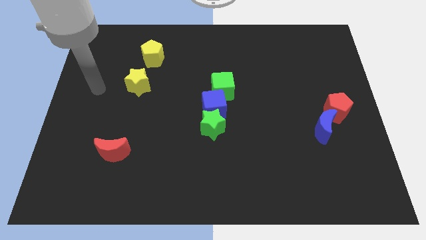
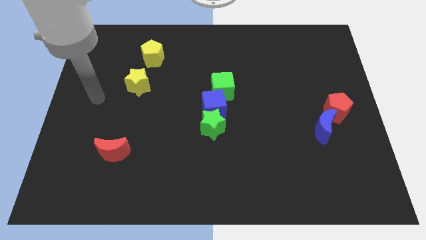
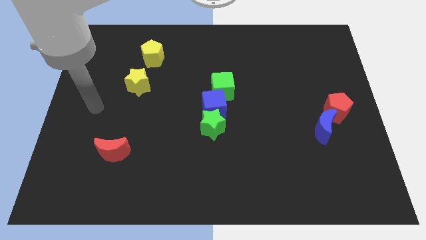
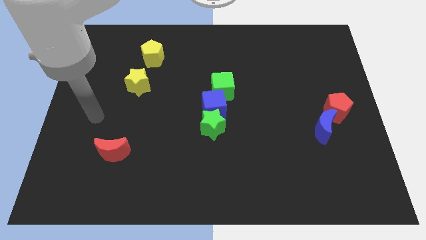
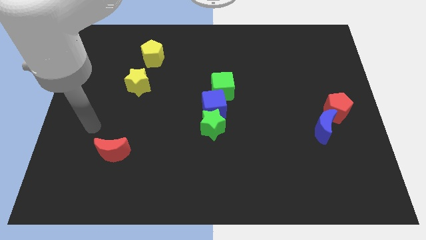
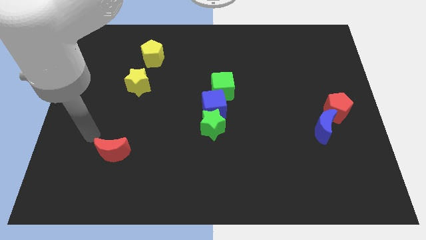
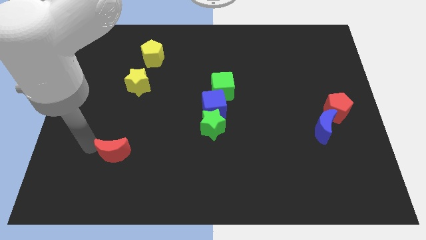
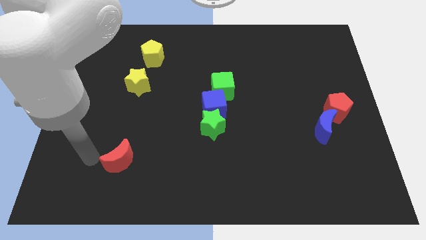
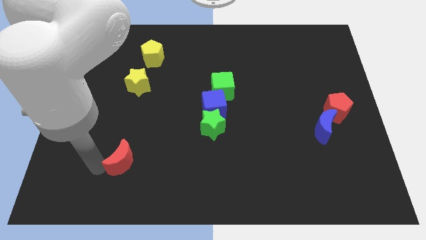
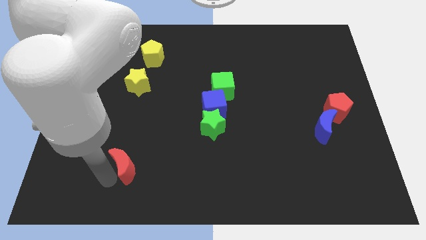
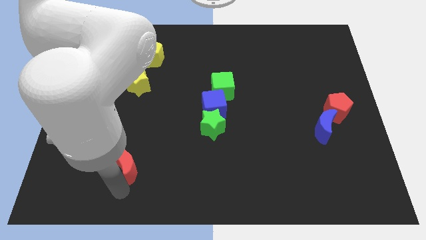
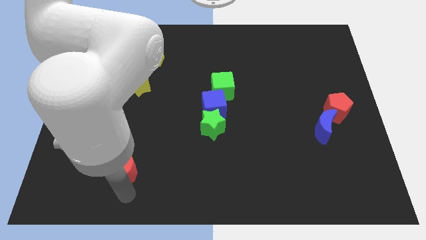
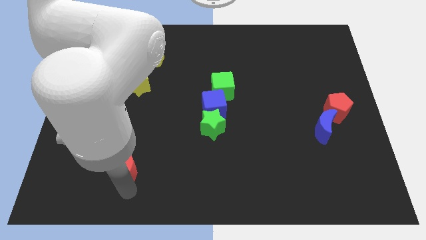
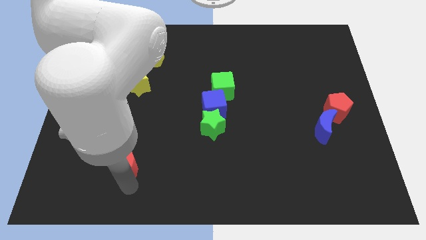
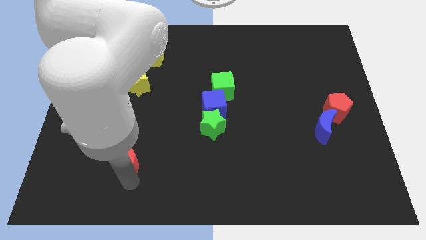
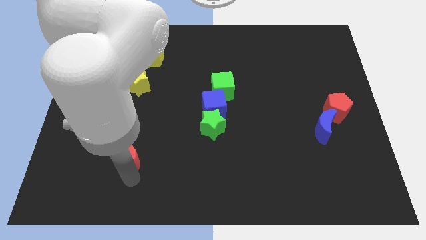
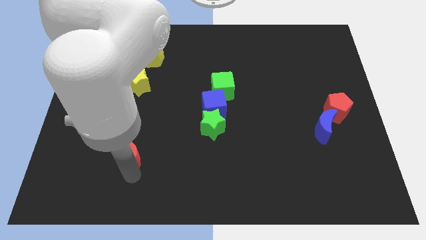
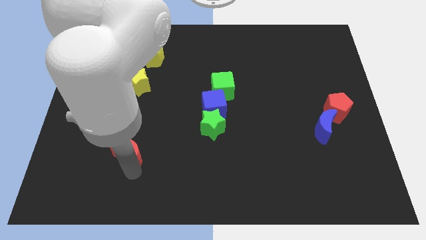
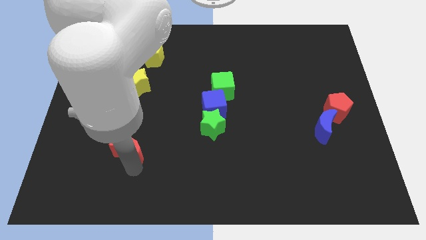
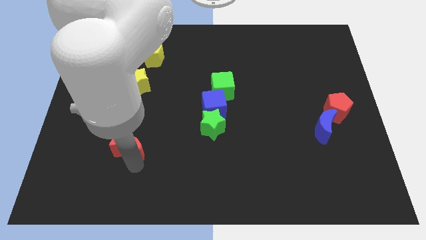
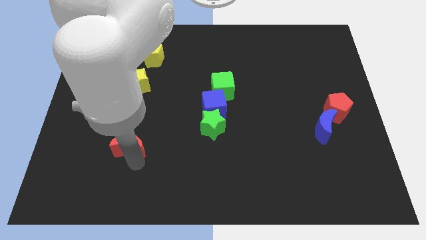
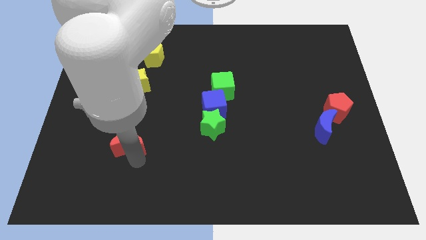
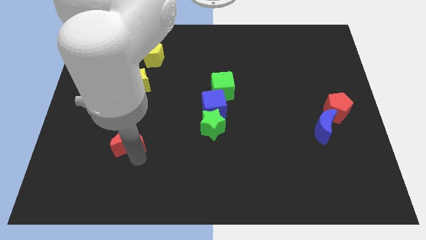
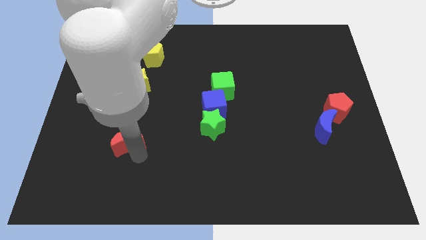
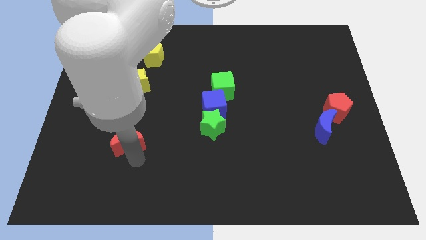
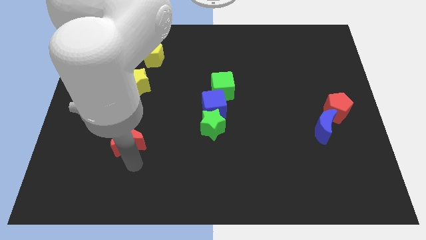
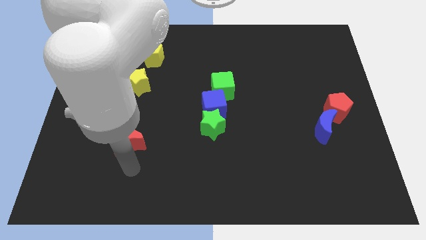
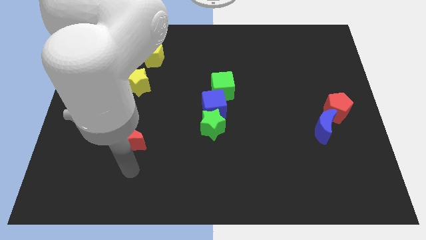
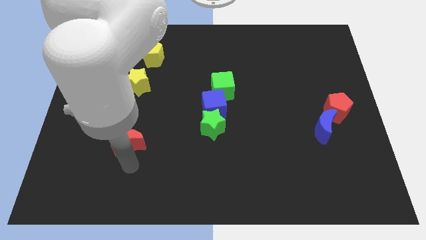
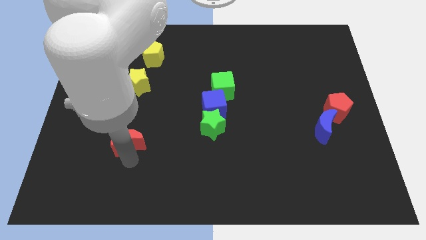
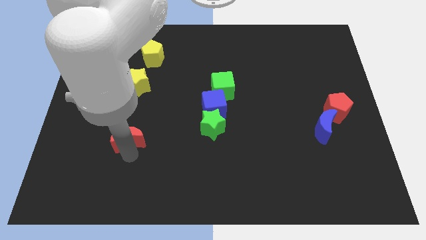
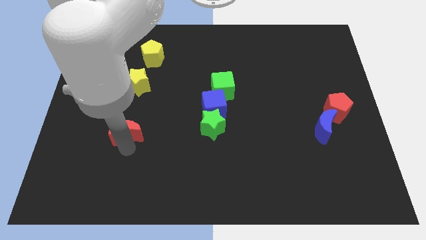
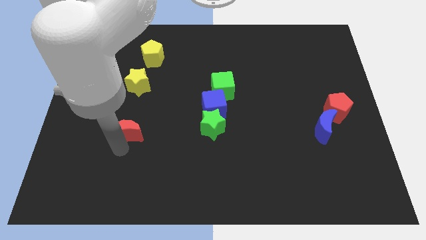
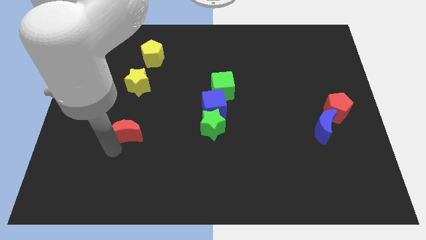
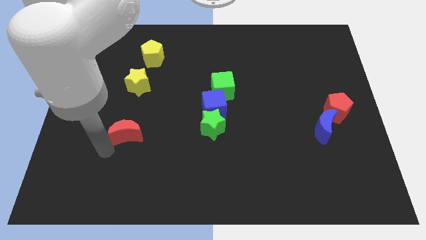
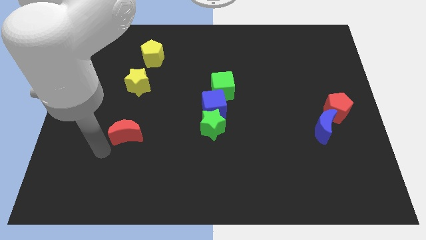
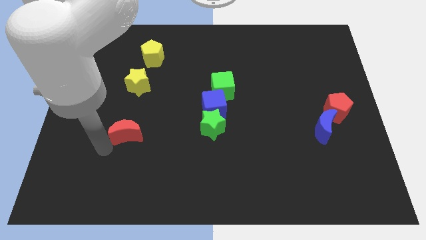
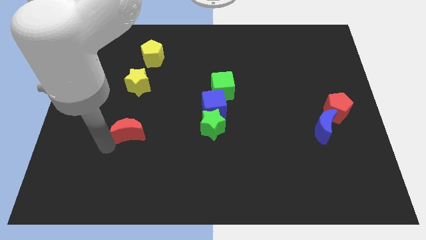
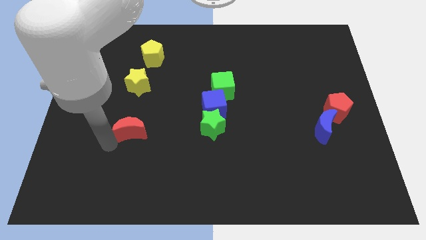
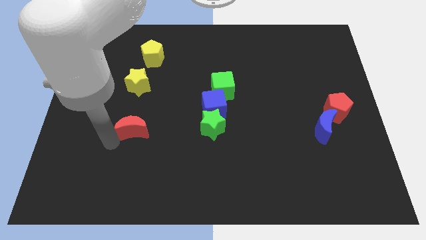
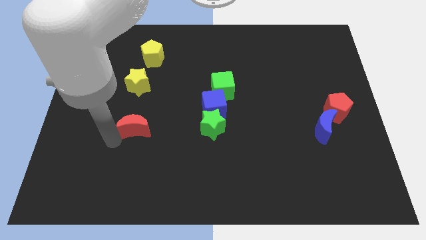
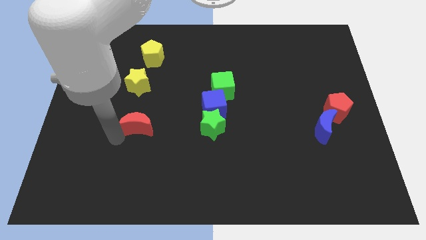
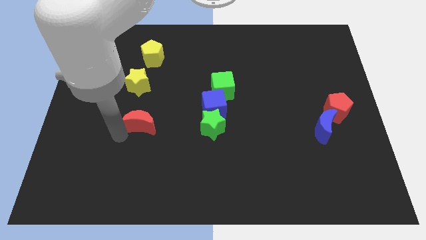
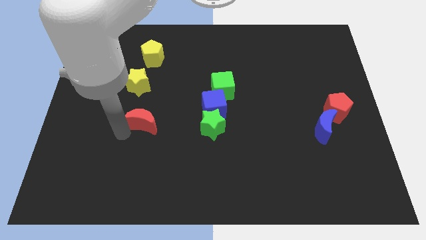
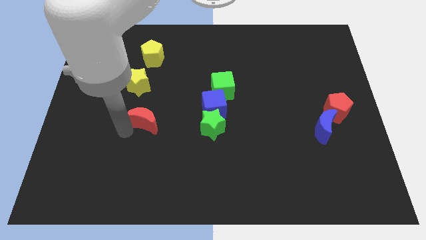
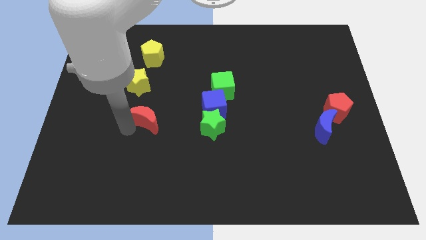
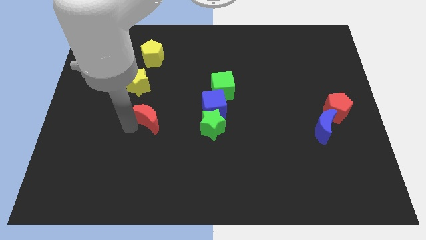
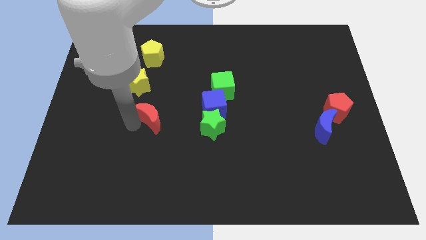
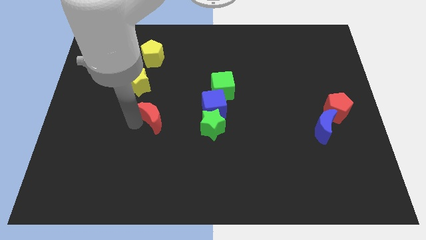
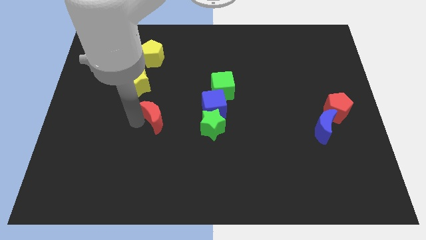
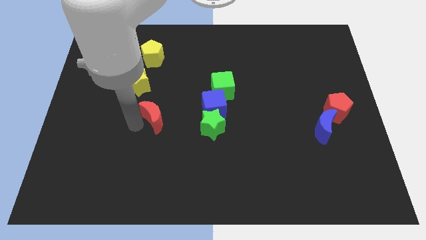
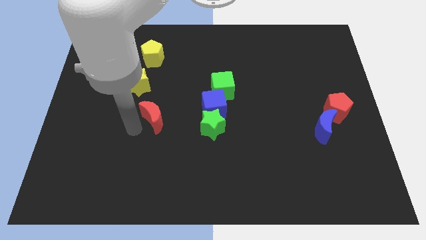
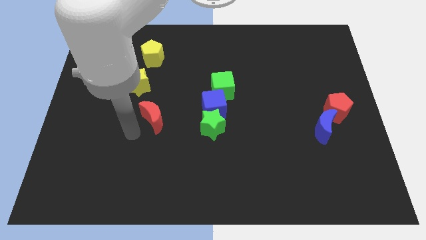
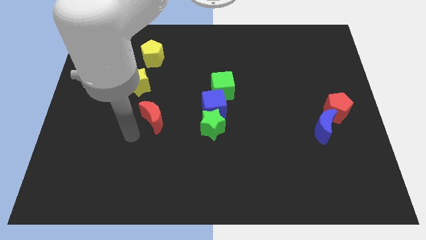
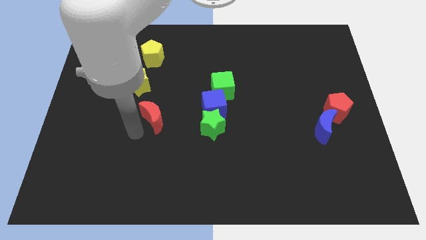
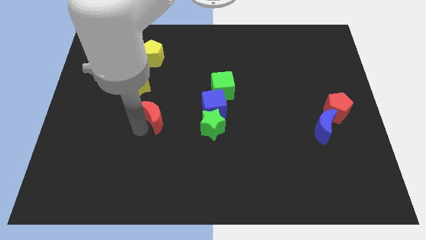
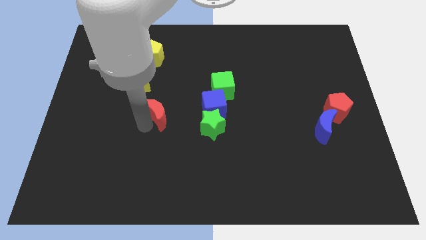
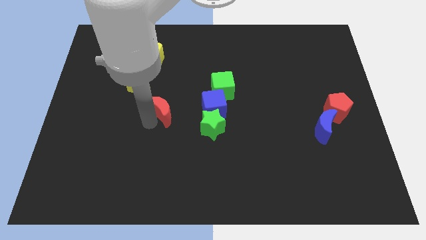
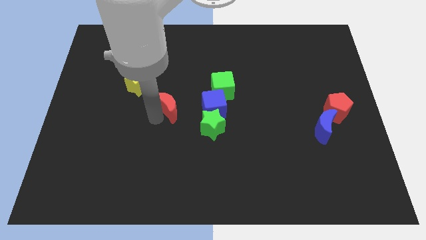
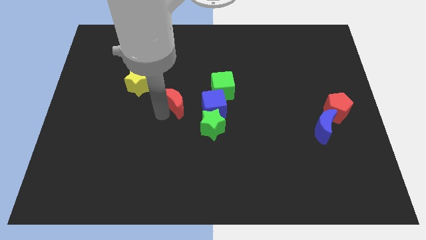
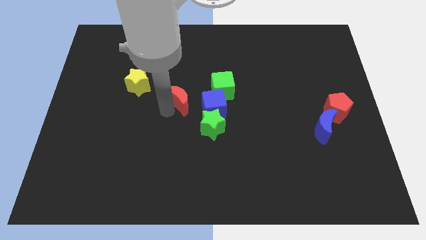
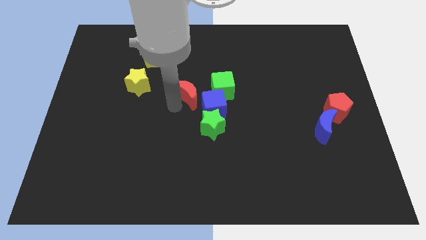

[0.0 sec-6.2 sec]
push the red moon diagonally upwards and to the right

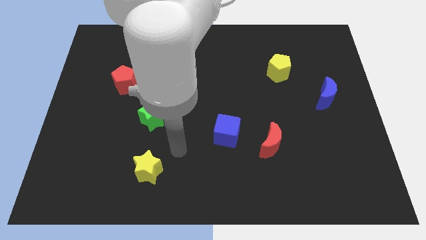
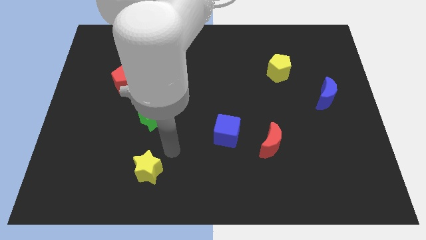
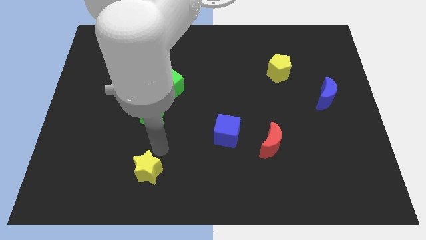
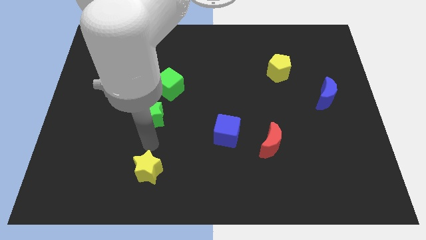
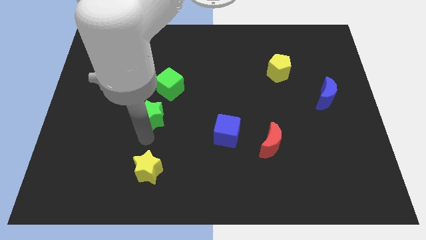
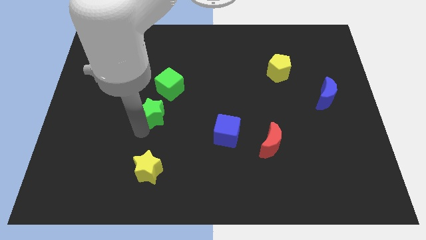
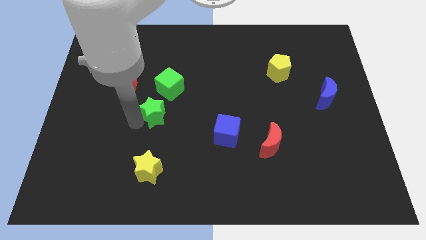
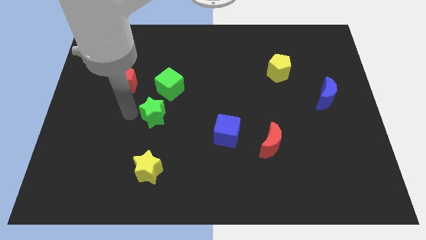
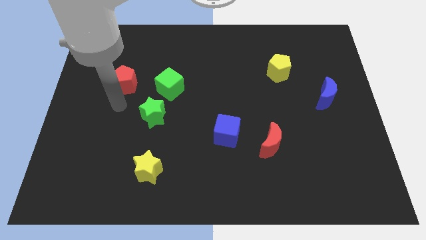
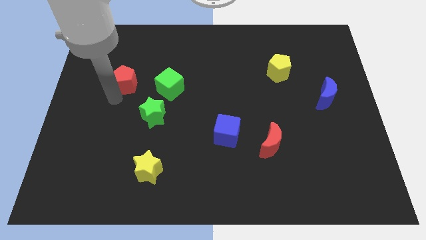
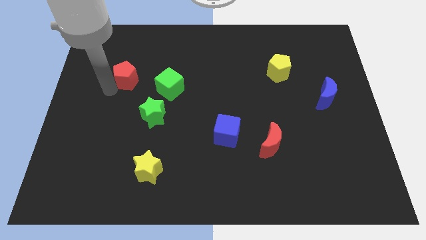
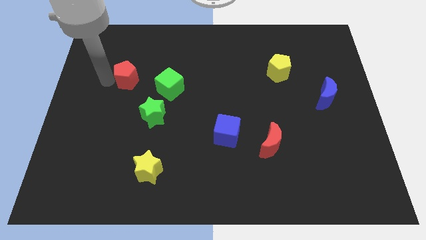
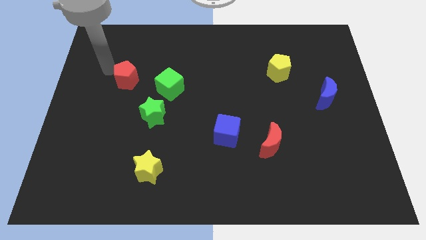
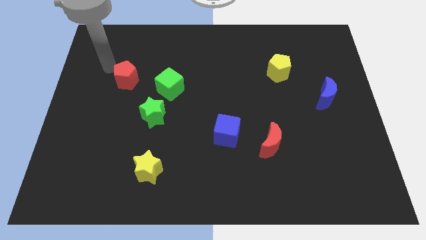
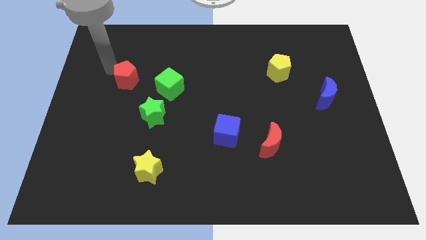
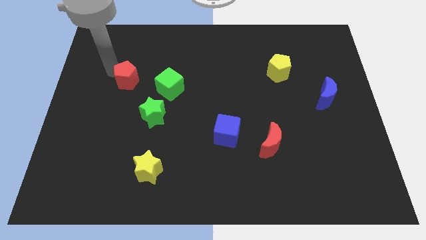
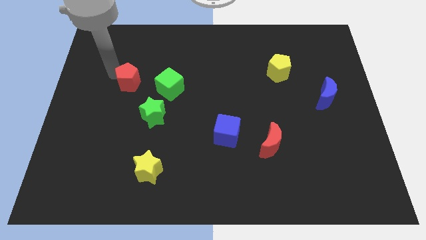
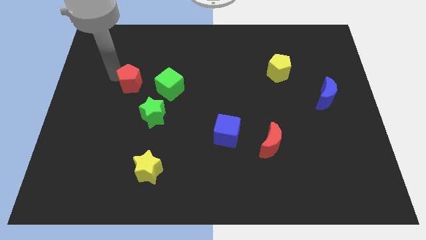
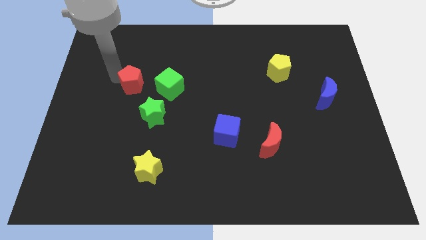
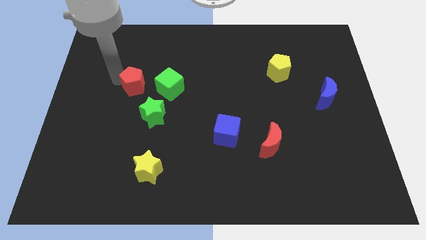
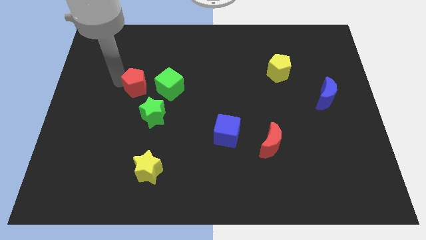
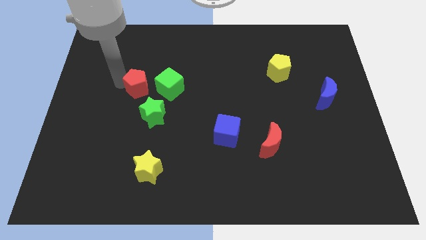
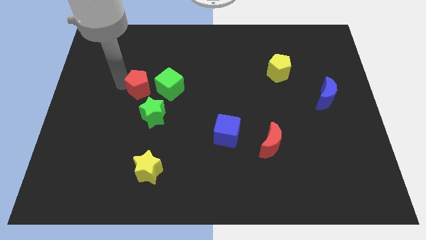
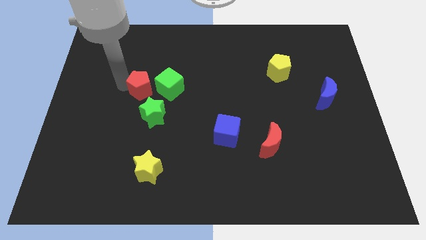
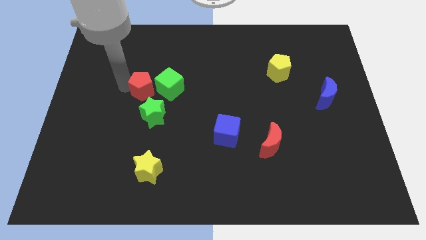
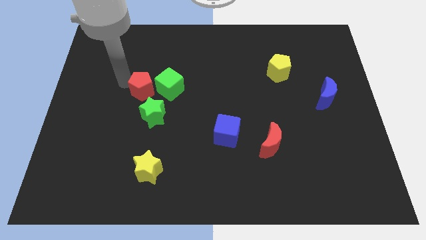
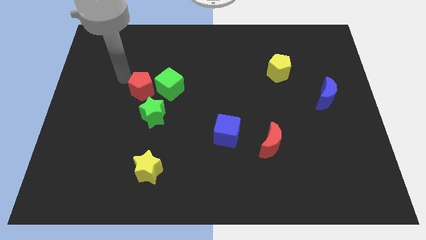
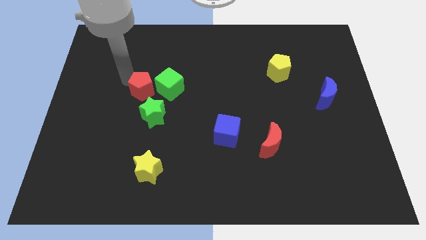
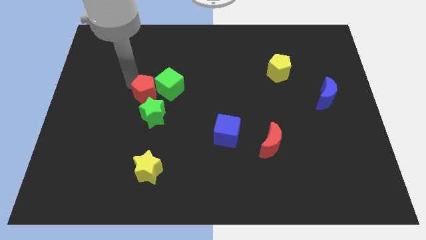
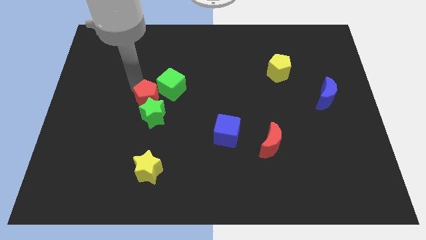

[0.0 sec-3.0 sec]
slide the red pentagon down and then to the right a little
